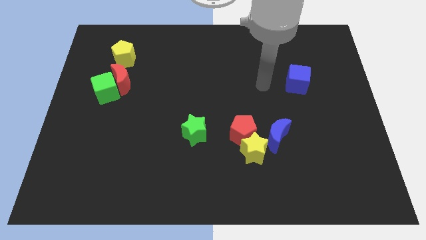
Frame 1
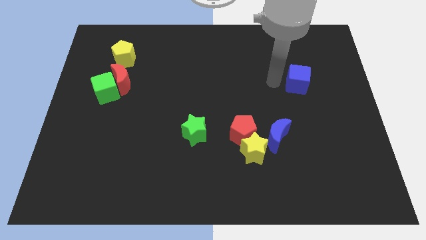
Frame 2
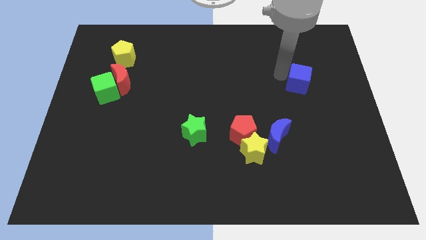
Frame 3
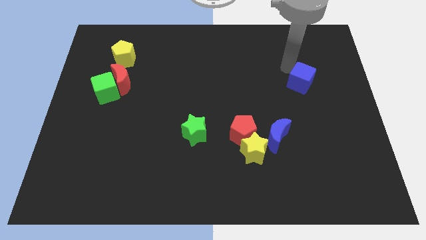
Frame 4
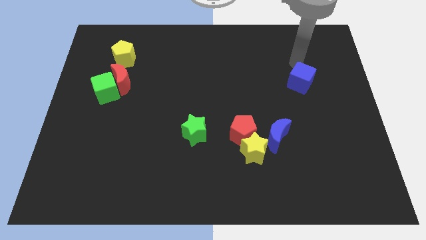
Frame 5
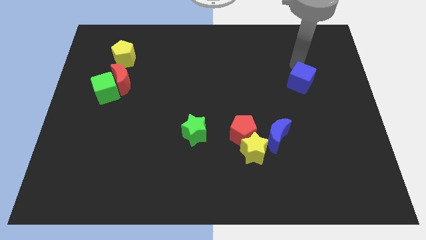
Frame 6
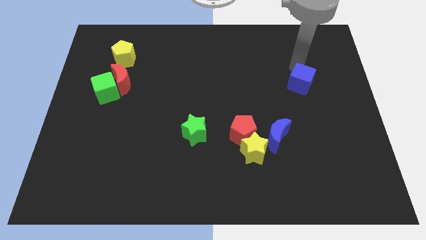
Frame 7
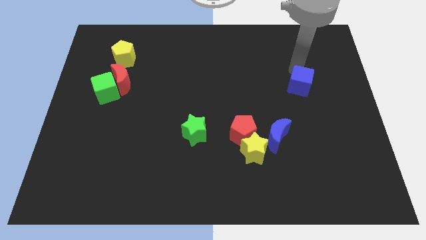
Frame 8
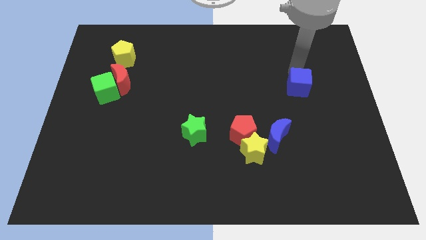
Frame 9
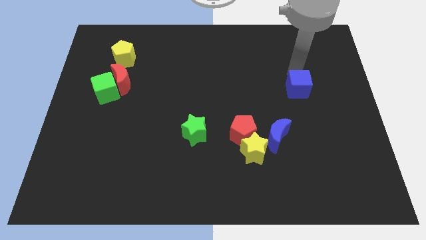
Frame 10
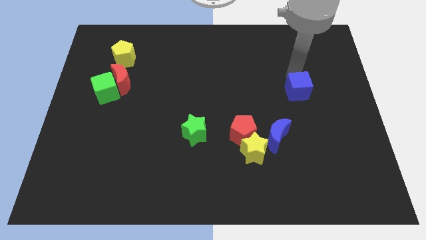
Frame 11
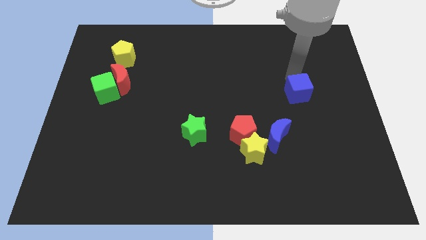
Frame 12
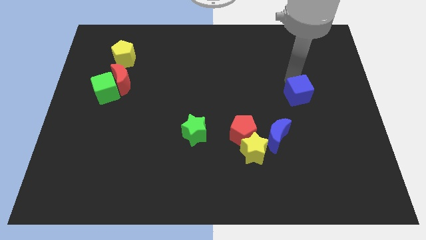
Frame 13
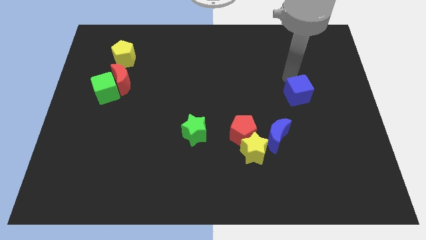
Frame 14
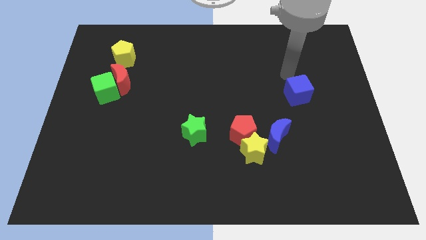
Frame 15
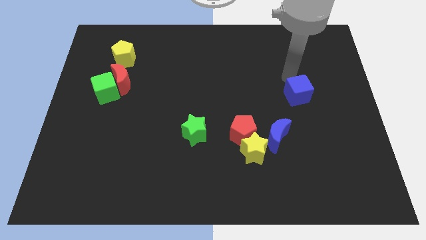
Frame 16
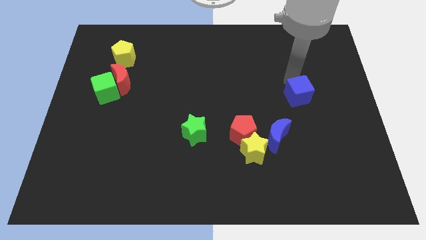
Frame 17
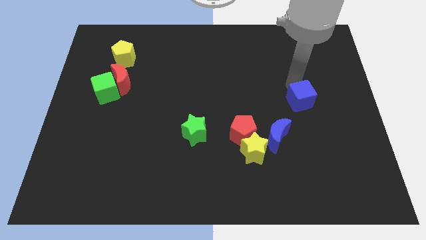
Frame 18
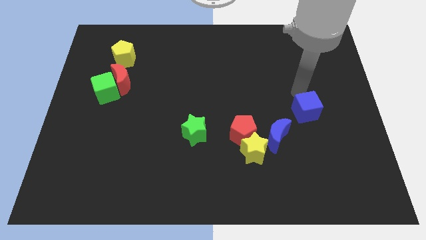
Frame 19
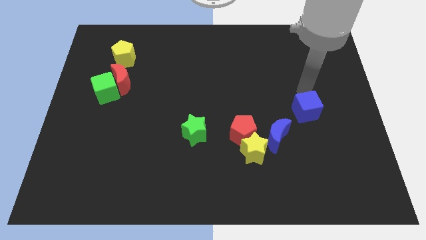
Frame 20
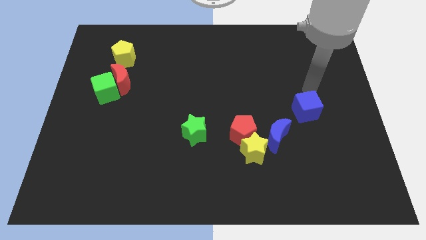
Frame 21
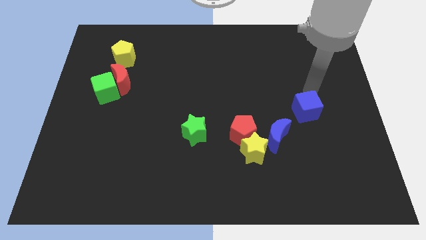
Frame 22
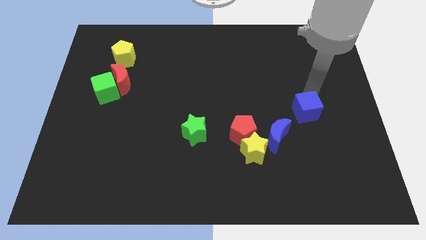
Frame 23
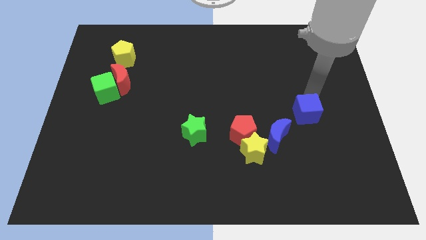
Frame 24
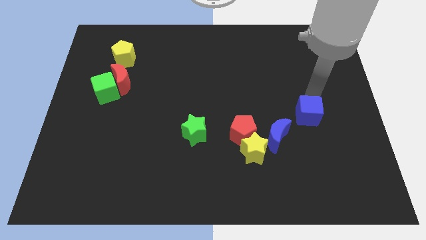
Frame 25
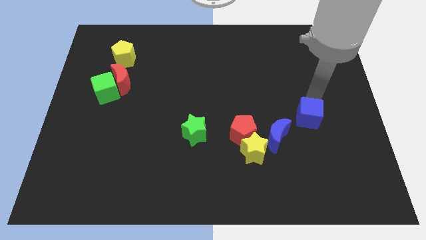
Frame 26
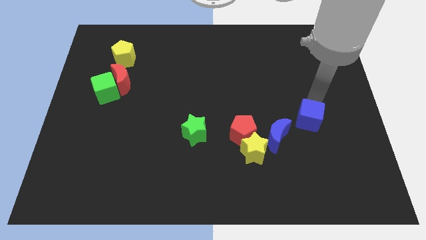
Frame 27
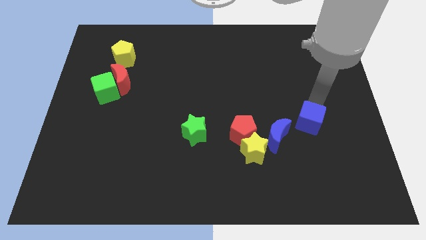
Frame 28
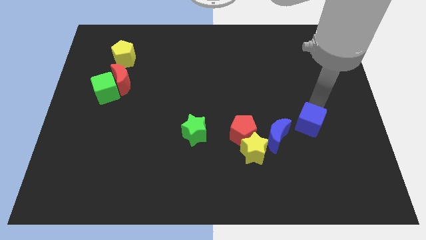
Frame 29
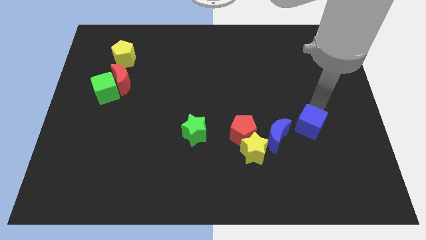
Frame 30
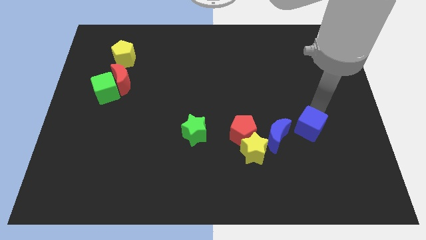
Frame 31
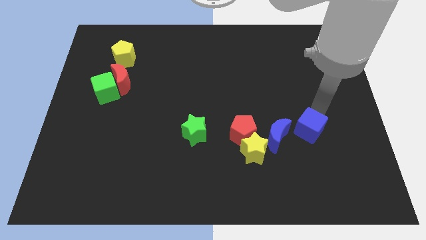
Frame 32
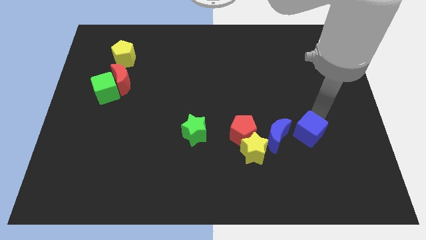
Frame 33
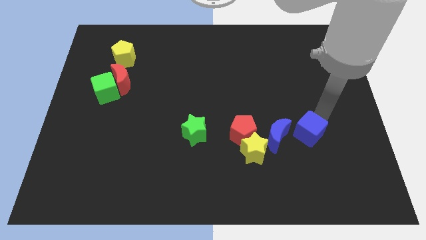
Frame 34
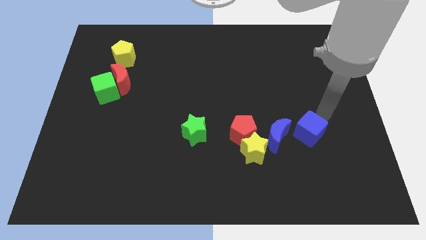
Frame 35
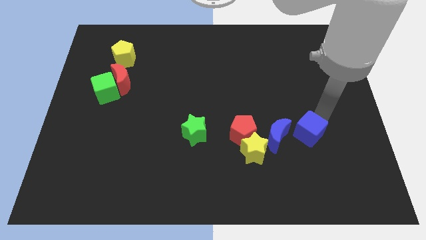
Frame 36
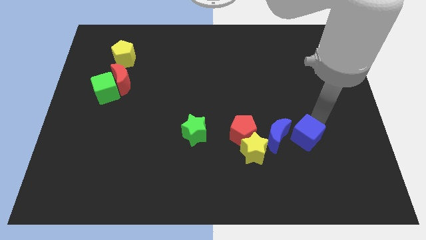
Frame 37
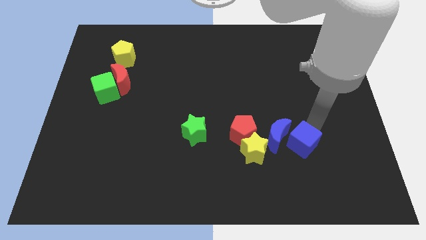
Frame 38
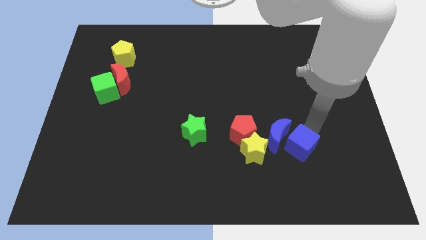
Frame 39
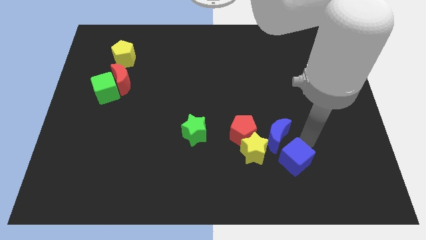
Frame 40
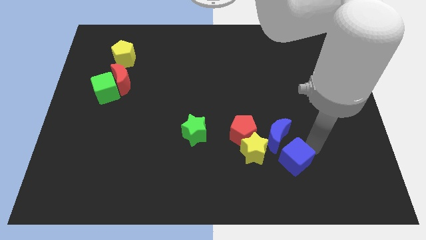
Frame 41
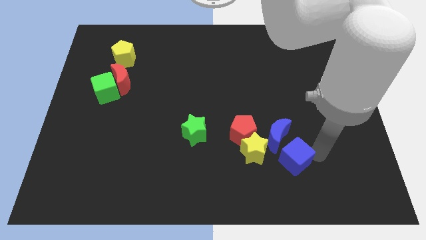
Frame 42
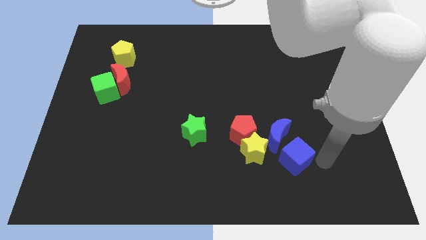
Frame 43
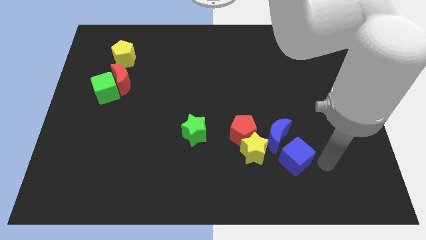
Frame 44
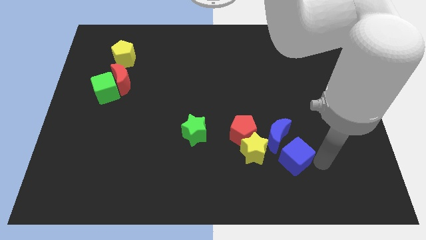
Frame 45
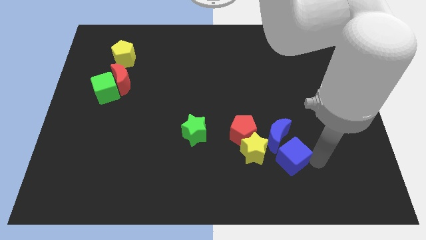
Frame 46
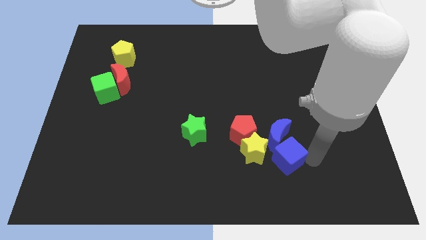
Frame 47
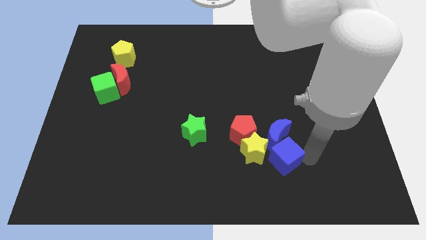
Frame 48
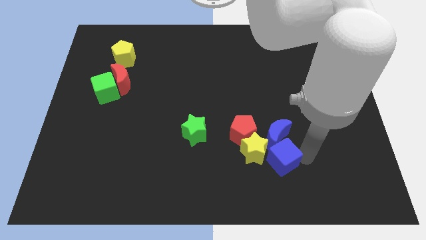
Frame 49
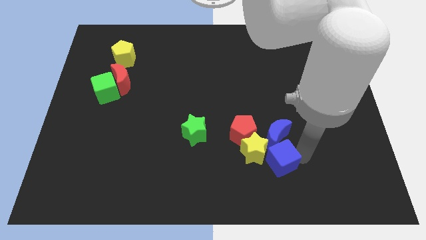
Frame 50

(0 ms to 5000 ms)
put the blue cube next to the yellow star

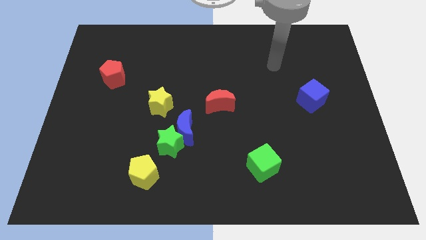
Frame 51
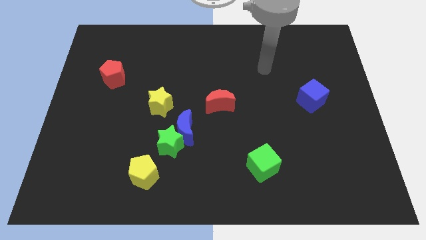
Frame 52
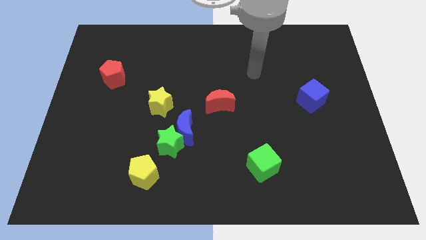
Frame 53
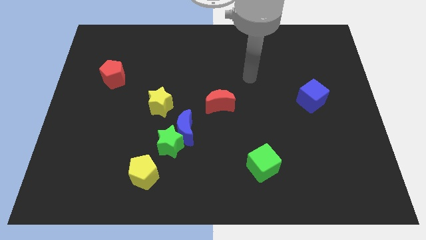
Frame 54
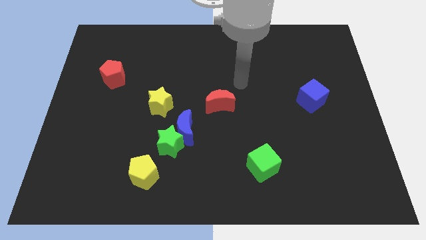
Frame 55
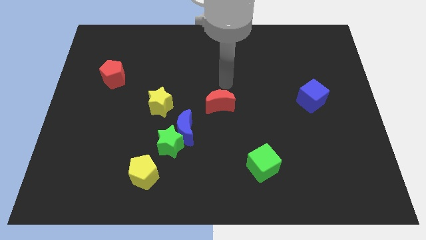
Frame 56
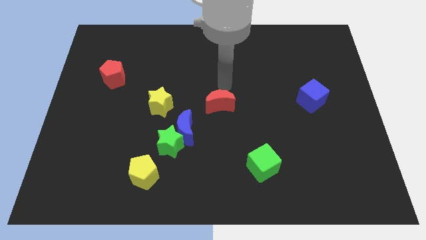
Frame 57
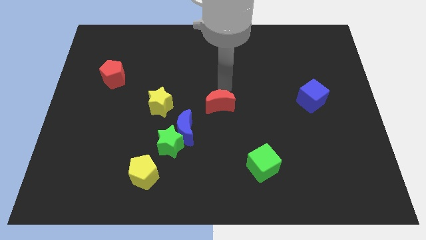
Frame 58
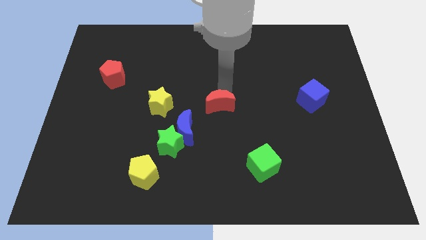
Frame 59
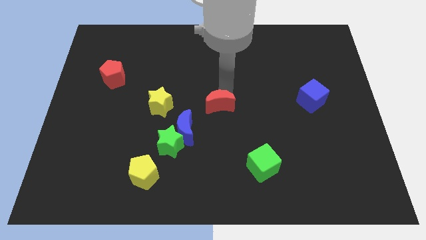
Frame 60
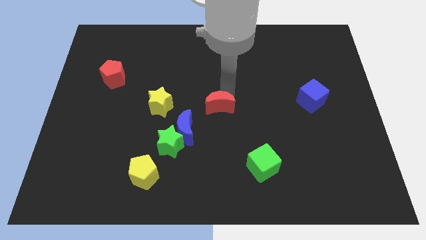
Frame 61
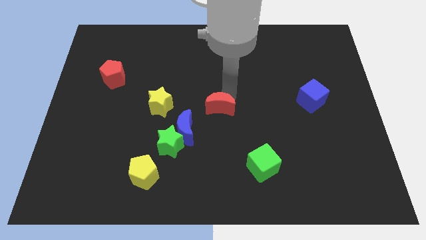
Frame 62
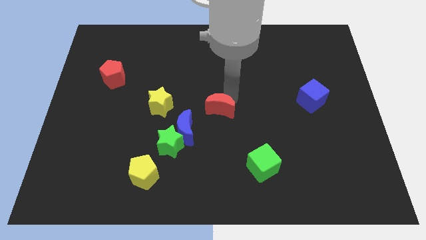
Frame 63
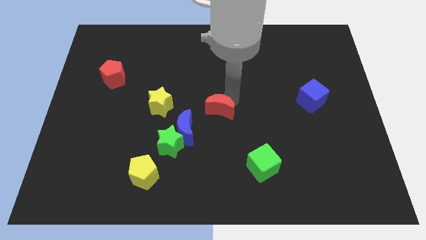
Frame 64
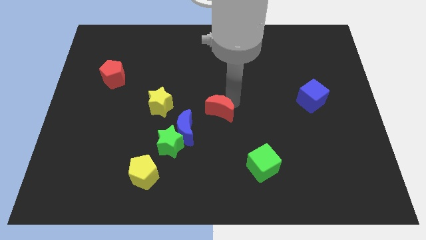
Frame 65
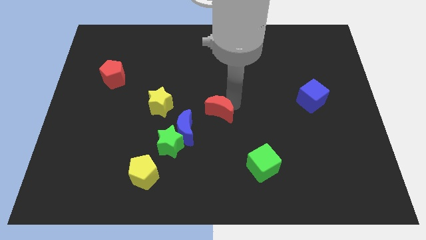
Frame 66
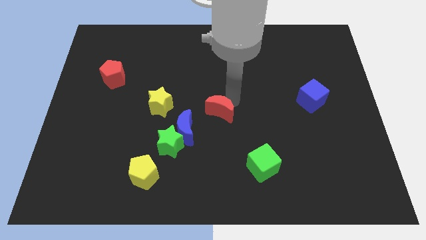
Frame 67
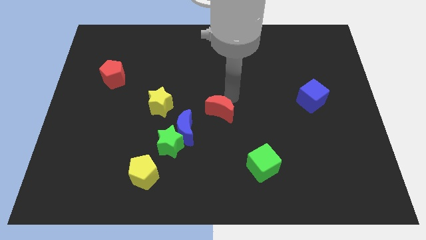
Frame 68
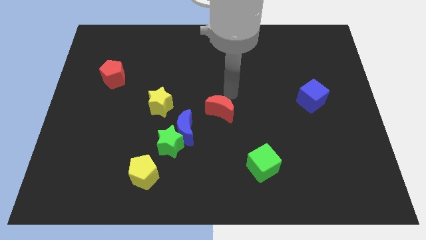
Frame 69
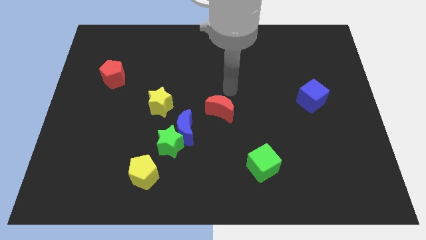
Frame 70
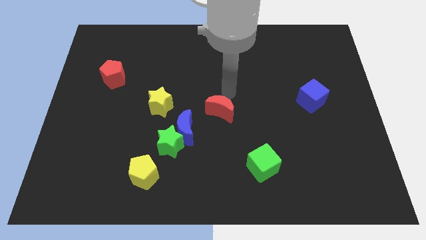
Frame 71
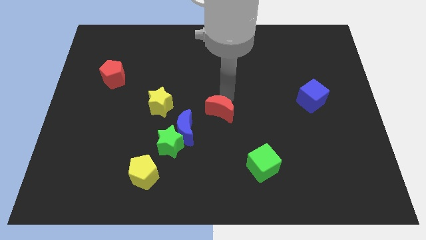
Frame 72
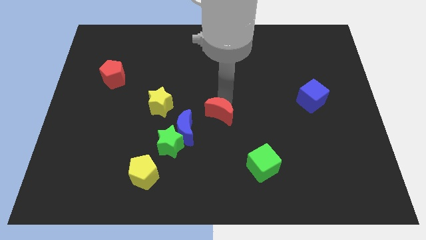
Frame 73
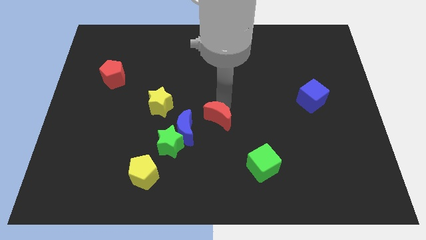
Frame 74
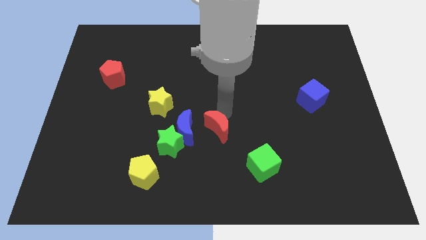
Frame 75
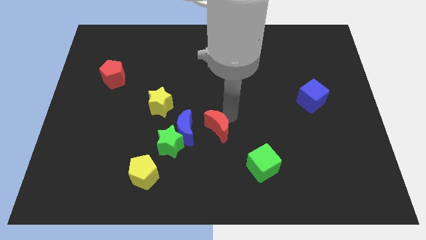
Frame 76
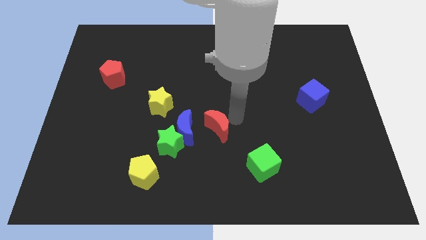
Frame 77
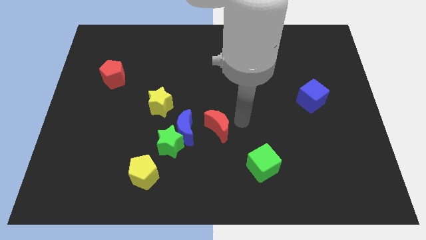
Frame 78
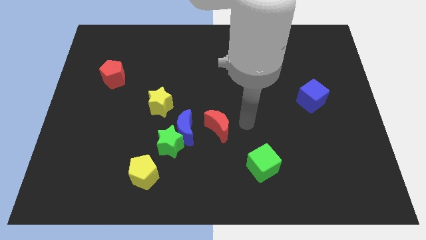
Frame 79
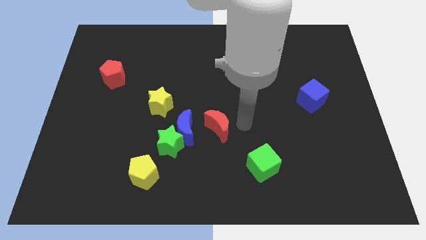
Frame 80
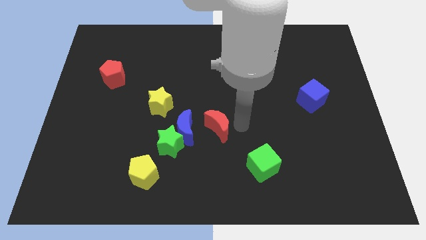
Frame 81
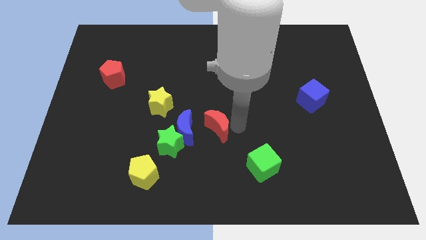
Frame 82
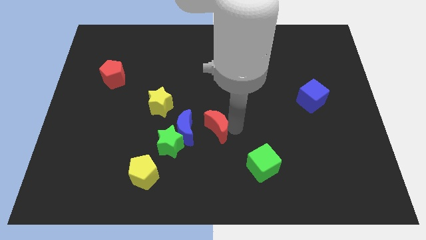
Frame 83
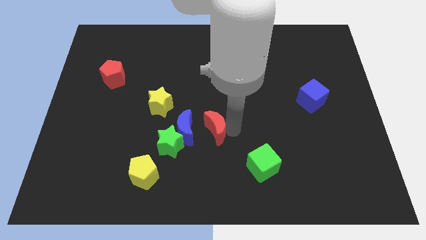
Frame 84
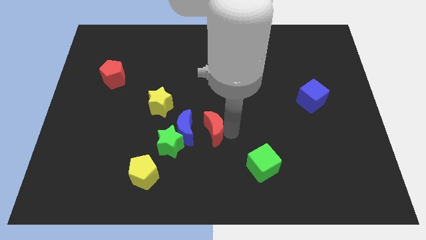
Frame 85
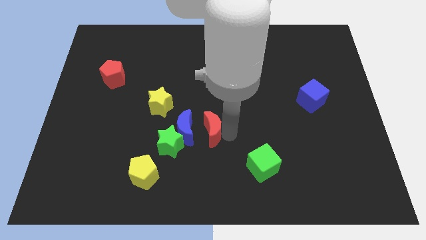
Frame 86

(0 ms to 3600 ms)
slide the red moon towards the blue moon
